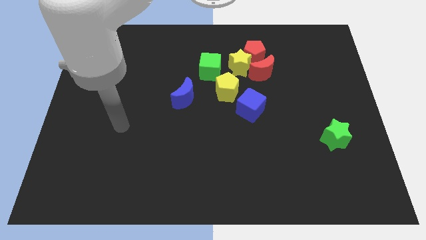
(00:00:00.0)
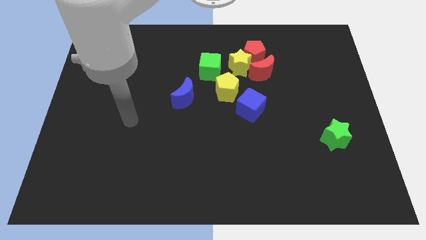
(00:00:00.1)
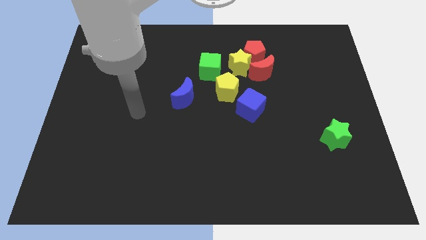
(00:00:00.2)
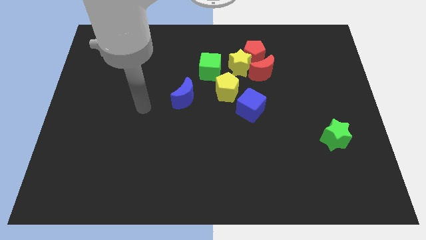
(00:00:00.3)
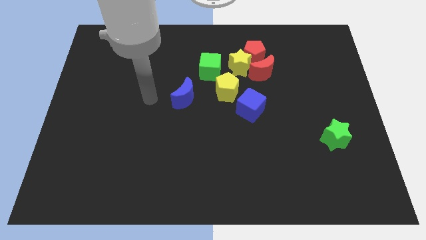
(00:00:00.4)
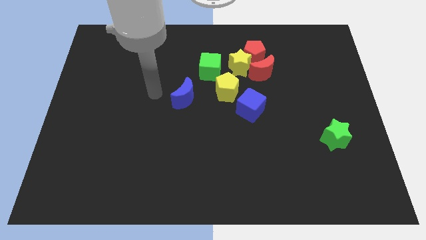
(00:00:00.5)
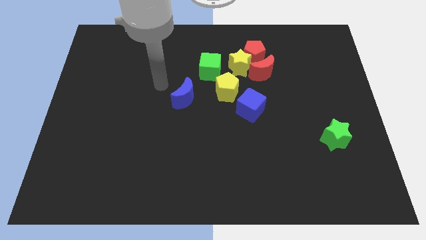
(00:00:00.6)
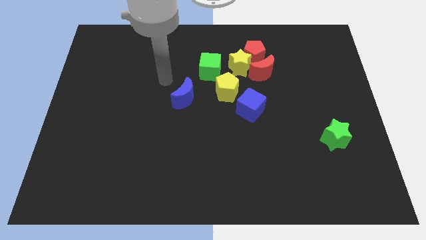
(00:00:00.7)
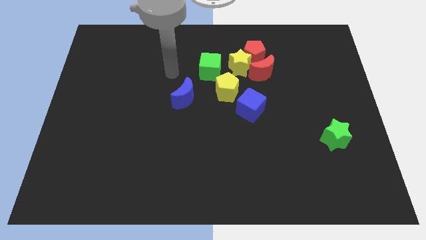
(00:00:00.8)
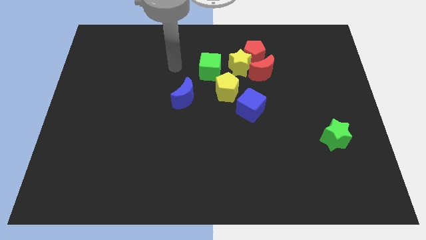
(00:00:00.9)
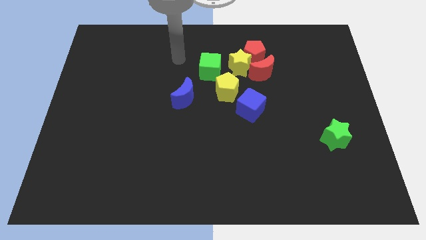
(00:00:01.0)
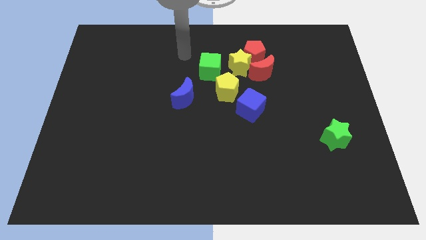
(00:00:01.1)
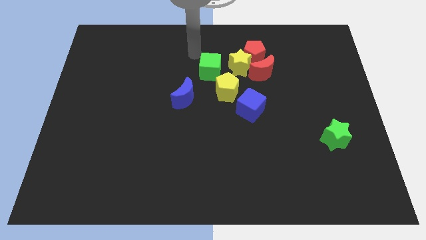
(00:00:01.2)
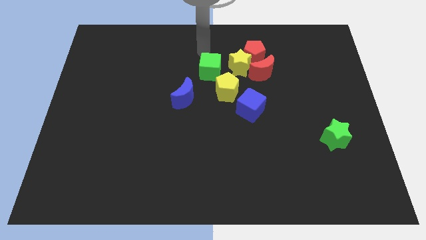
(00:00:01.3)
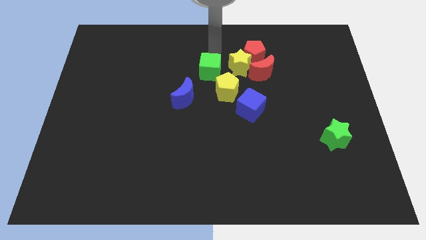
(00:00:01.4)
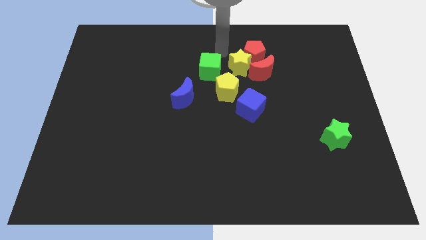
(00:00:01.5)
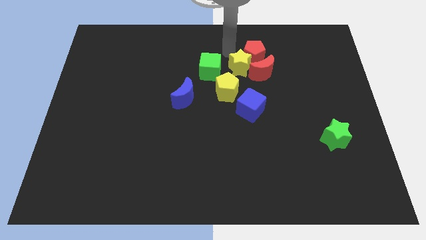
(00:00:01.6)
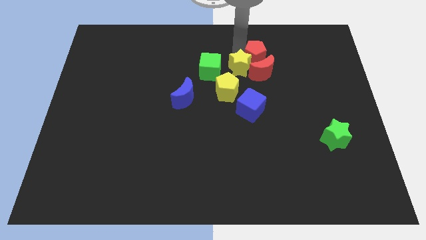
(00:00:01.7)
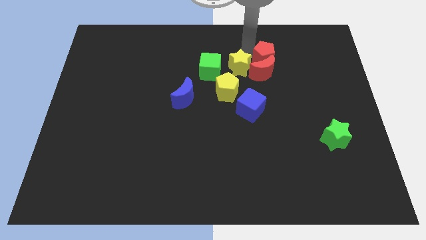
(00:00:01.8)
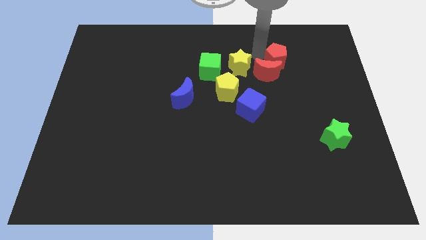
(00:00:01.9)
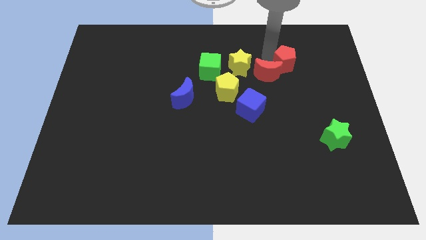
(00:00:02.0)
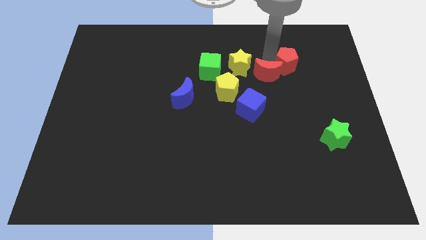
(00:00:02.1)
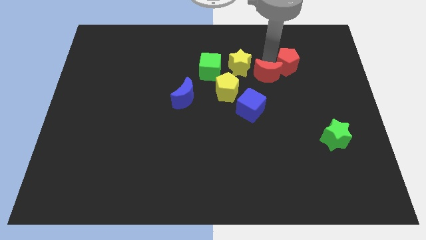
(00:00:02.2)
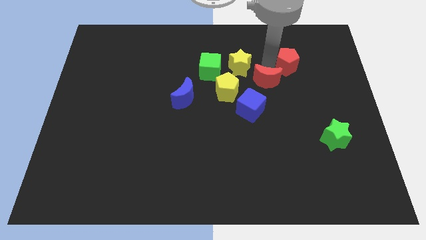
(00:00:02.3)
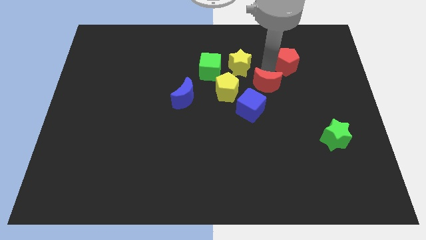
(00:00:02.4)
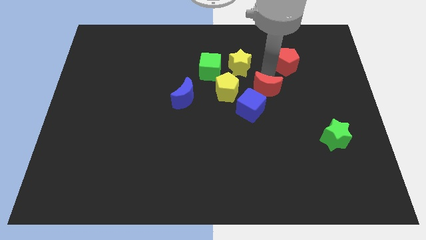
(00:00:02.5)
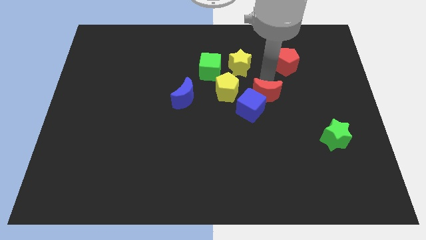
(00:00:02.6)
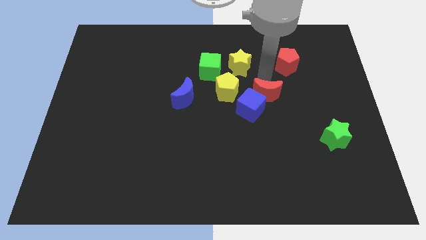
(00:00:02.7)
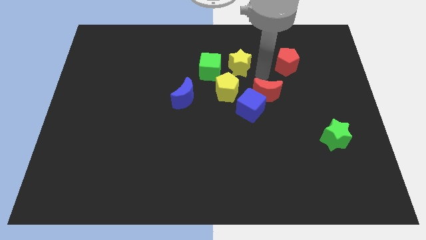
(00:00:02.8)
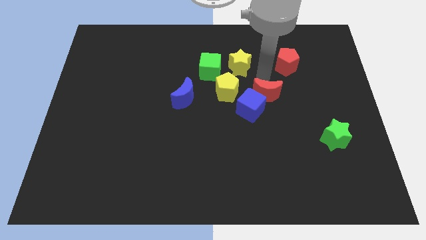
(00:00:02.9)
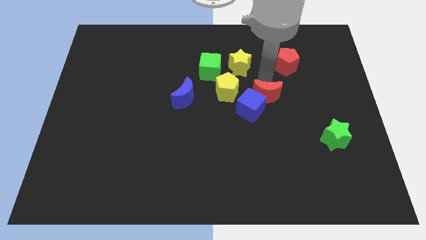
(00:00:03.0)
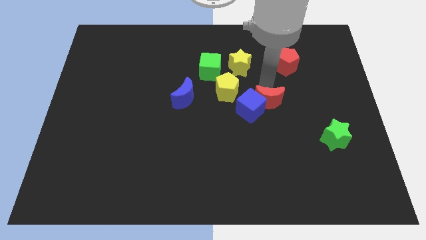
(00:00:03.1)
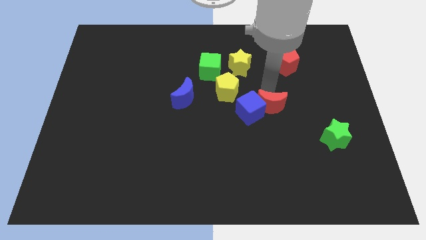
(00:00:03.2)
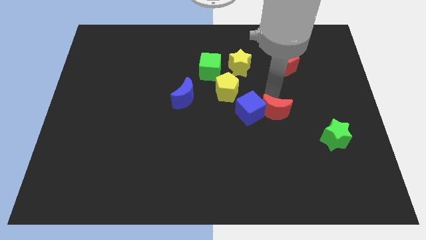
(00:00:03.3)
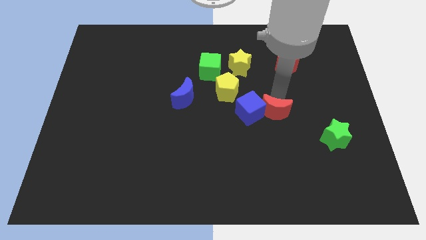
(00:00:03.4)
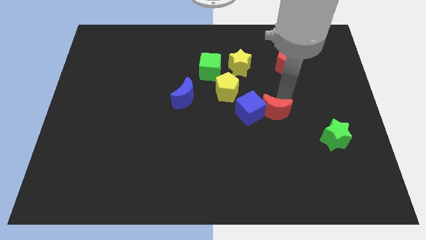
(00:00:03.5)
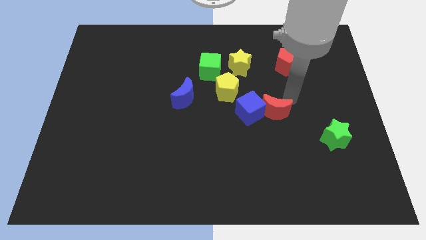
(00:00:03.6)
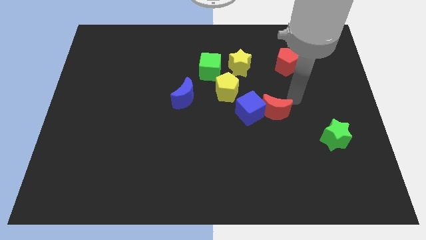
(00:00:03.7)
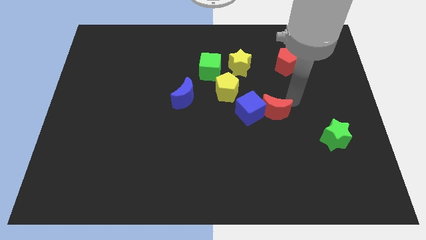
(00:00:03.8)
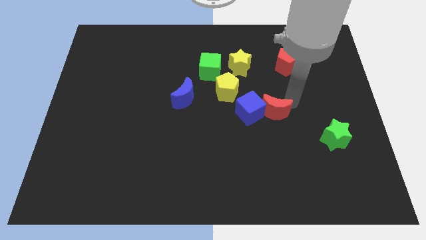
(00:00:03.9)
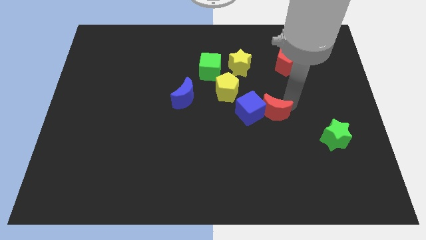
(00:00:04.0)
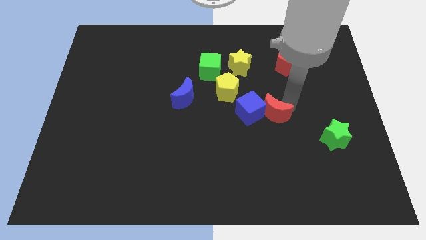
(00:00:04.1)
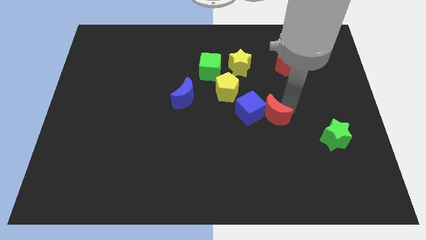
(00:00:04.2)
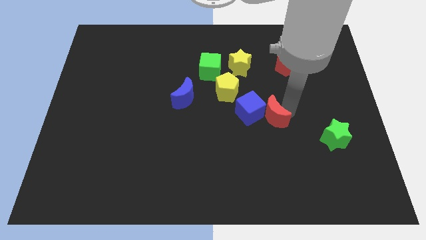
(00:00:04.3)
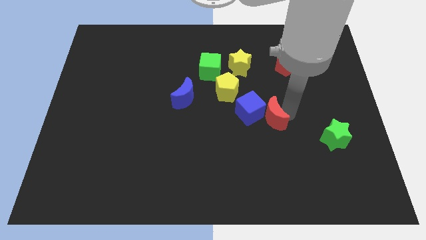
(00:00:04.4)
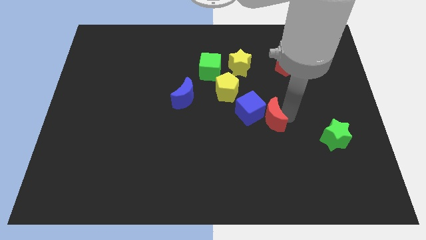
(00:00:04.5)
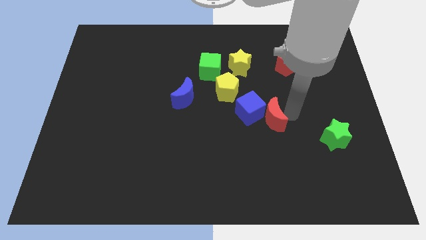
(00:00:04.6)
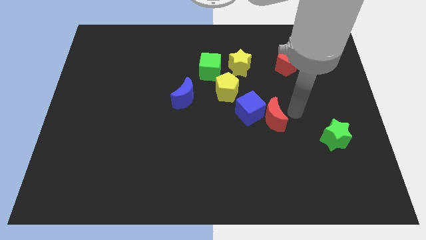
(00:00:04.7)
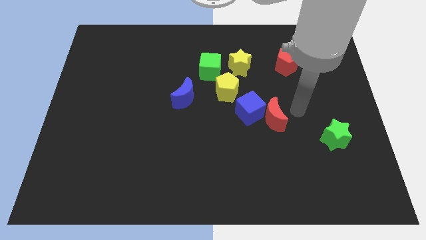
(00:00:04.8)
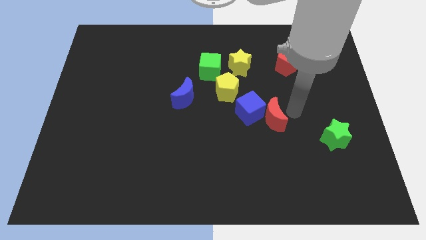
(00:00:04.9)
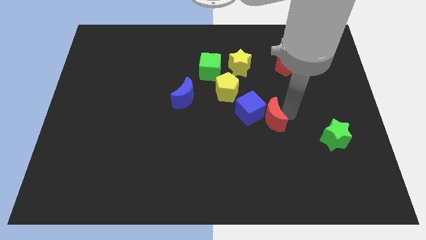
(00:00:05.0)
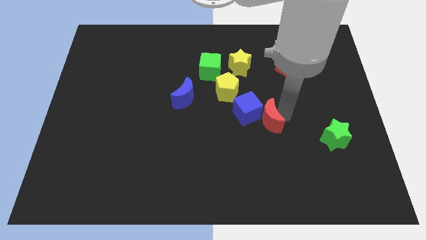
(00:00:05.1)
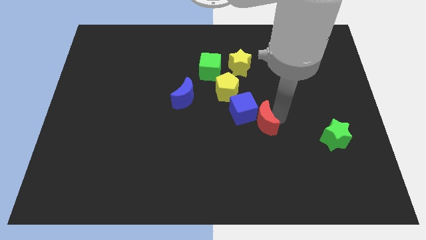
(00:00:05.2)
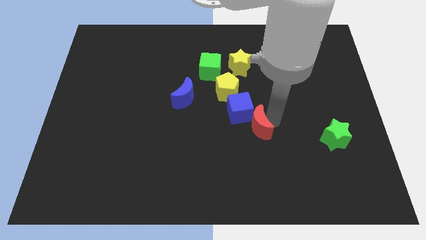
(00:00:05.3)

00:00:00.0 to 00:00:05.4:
slightly move the red moon downwards and then to the left

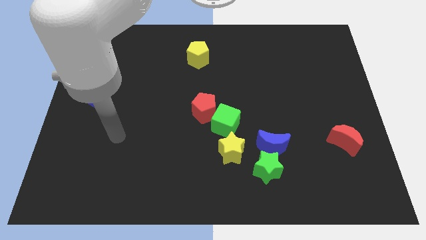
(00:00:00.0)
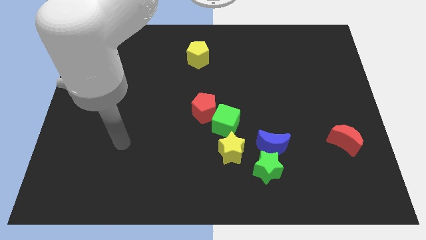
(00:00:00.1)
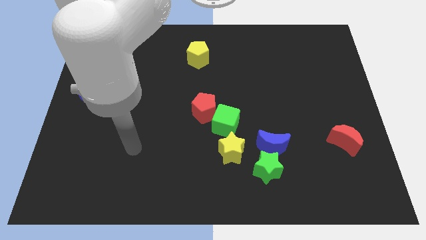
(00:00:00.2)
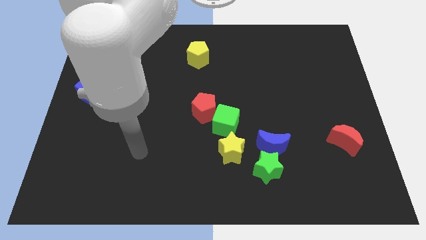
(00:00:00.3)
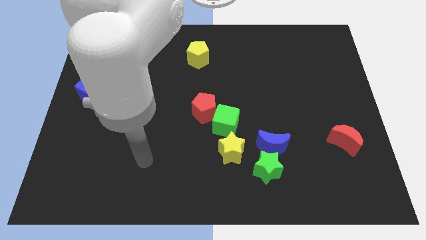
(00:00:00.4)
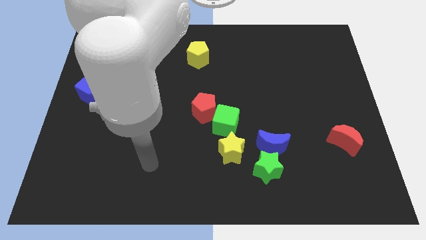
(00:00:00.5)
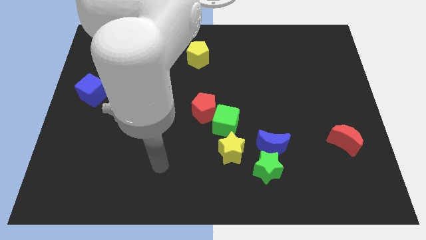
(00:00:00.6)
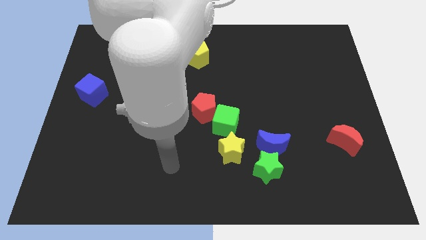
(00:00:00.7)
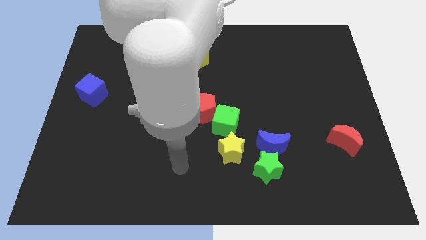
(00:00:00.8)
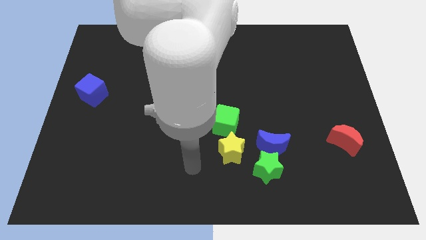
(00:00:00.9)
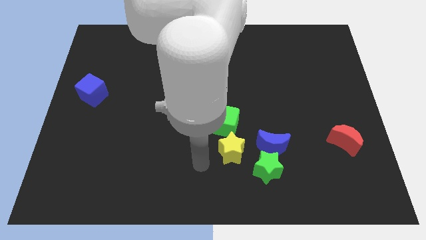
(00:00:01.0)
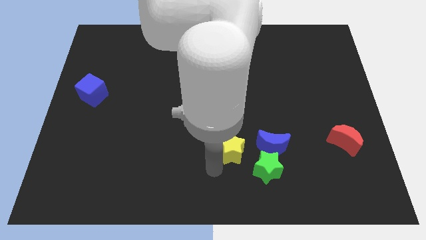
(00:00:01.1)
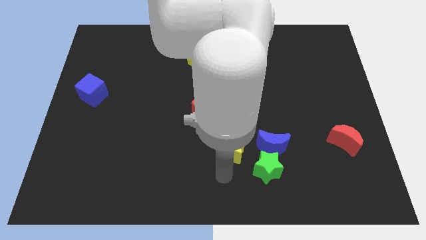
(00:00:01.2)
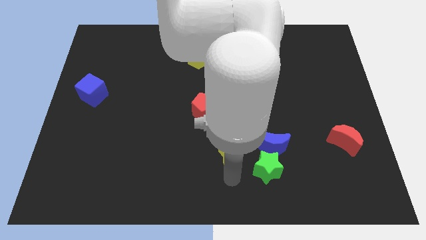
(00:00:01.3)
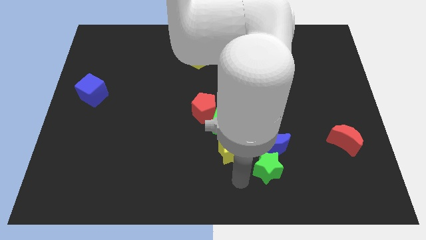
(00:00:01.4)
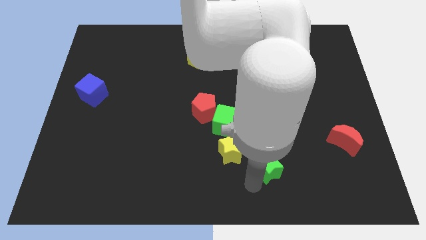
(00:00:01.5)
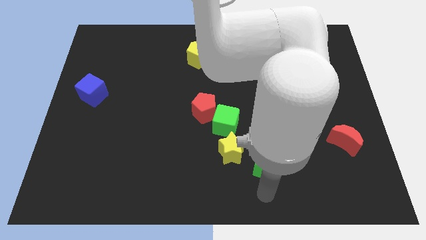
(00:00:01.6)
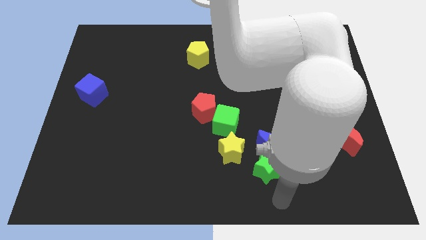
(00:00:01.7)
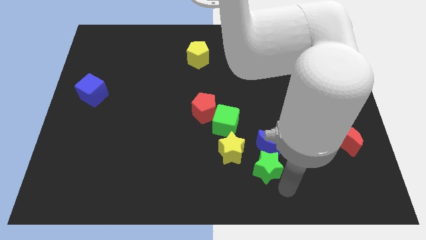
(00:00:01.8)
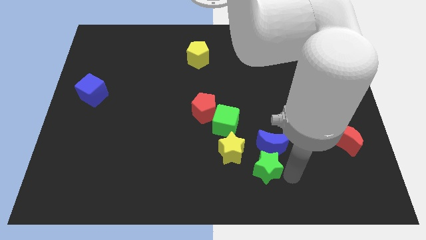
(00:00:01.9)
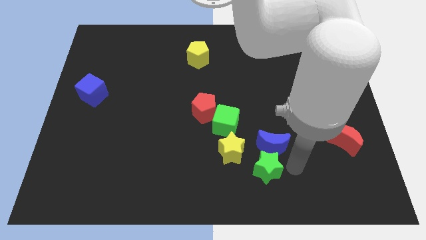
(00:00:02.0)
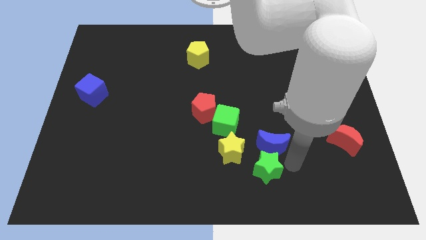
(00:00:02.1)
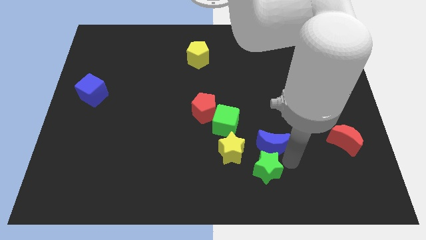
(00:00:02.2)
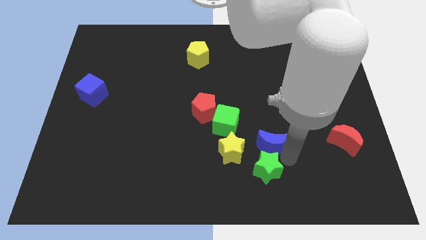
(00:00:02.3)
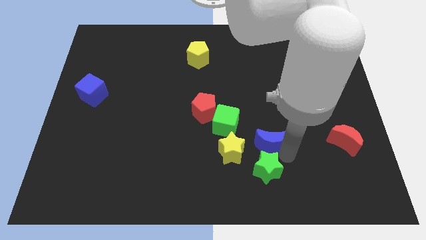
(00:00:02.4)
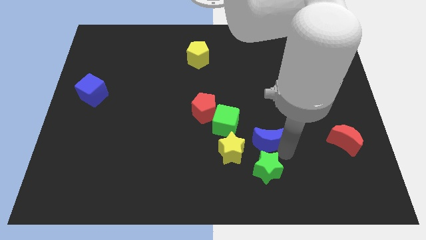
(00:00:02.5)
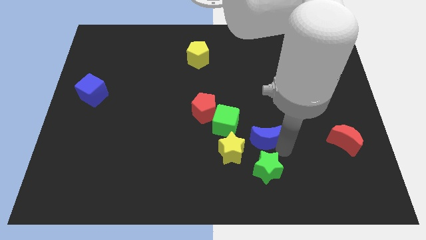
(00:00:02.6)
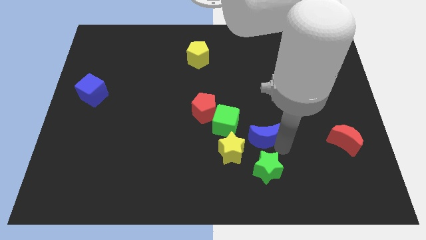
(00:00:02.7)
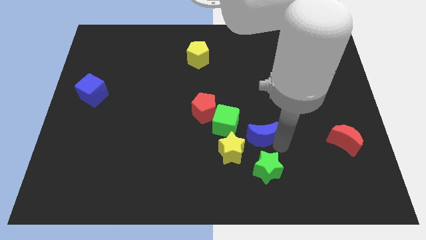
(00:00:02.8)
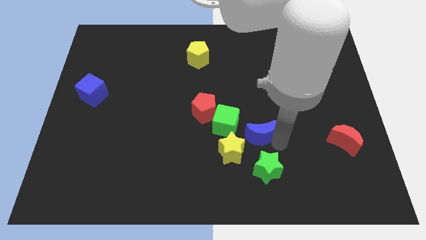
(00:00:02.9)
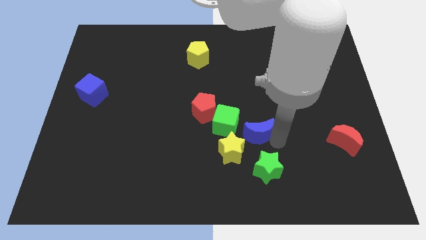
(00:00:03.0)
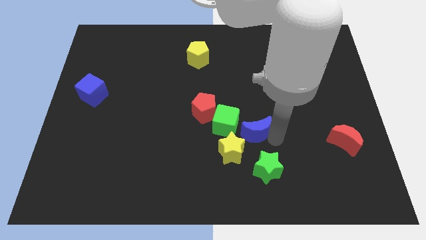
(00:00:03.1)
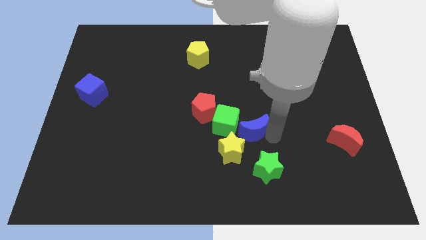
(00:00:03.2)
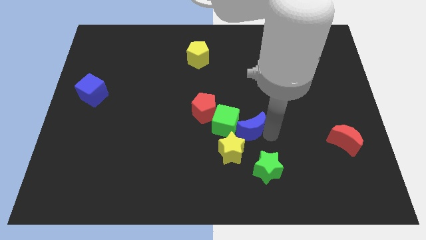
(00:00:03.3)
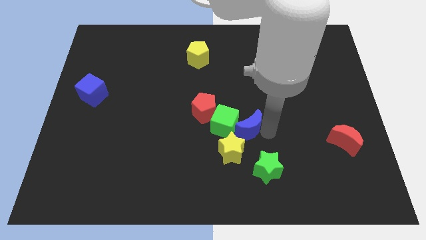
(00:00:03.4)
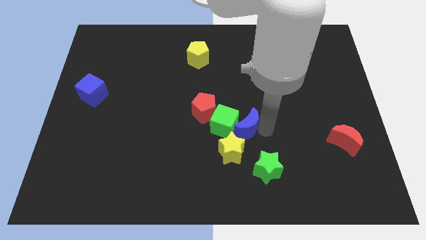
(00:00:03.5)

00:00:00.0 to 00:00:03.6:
move the blue moon up and to the left slightly
